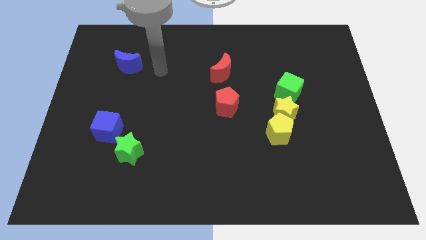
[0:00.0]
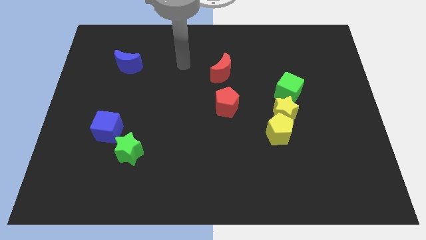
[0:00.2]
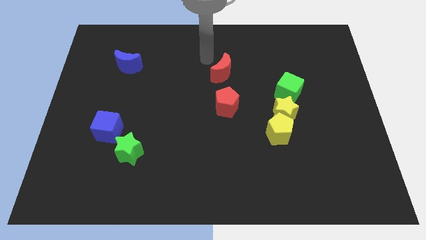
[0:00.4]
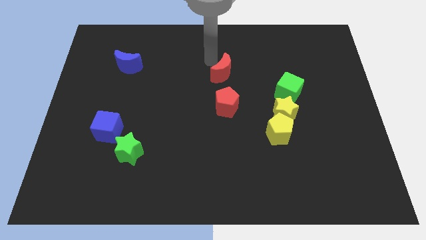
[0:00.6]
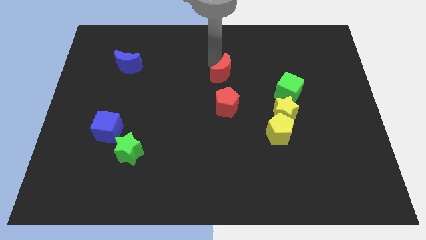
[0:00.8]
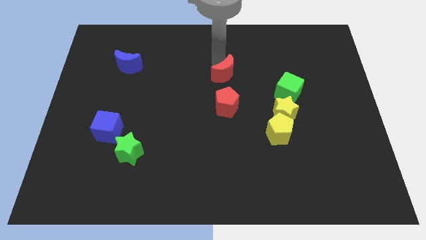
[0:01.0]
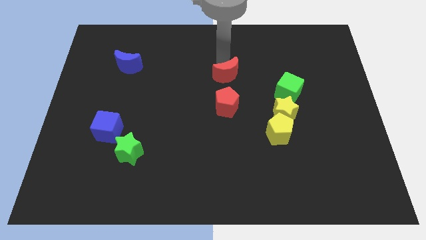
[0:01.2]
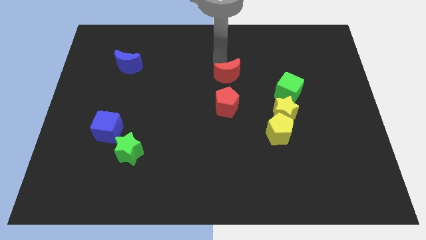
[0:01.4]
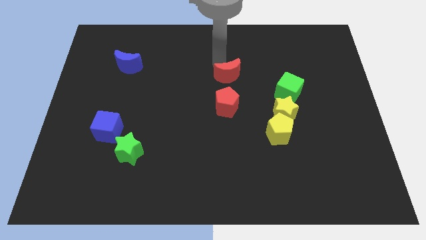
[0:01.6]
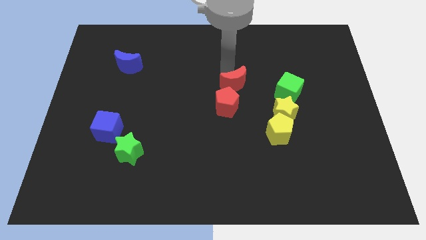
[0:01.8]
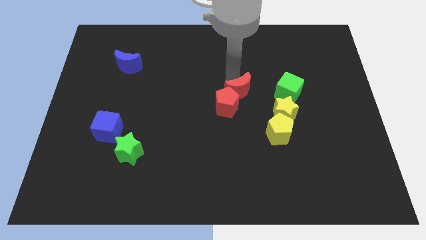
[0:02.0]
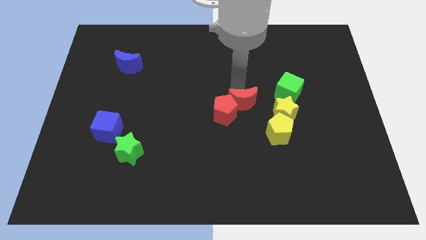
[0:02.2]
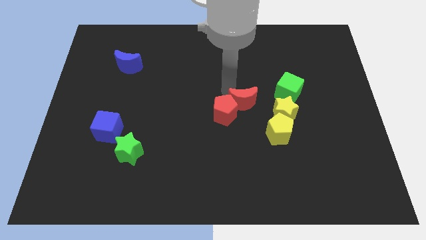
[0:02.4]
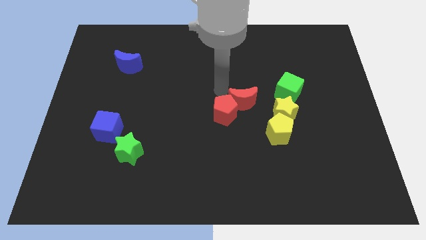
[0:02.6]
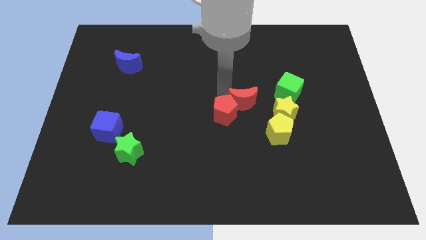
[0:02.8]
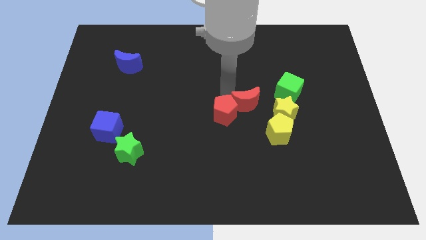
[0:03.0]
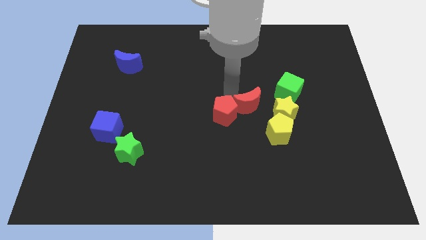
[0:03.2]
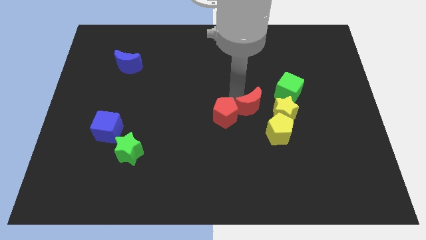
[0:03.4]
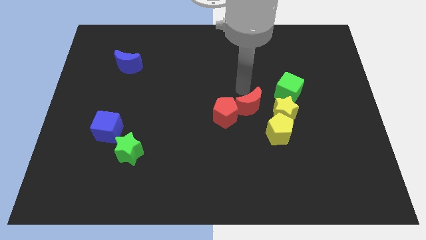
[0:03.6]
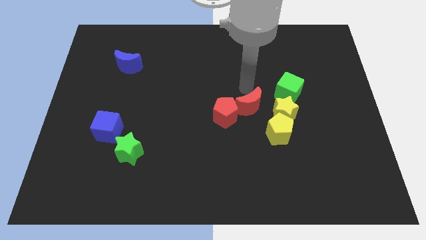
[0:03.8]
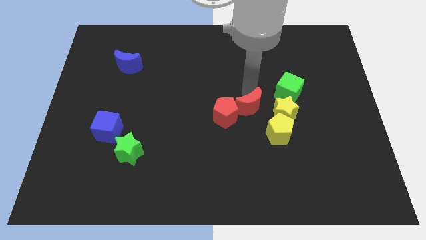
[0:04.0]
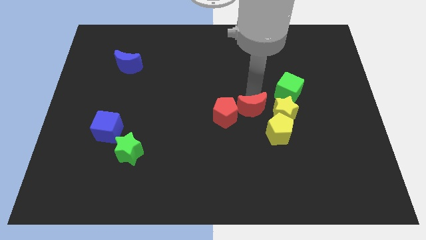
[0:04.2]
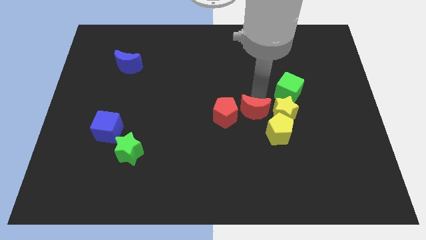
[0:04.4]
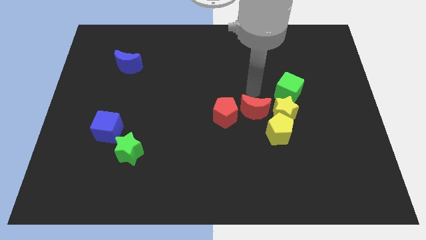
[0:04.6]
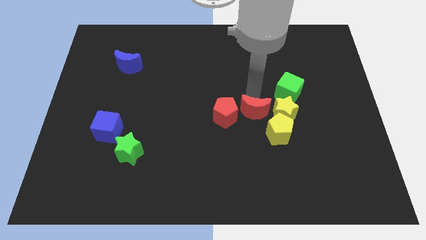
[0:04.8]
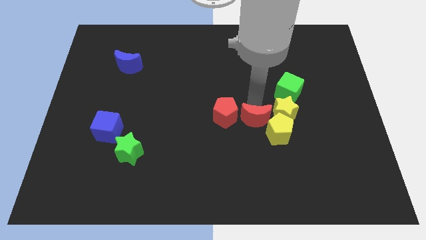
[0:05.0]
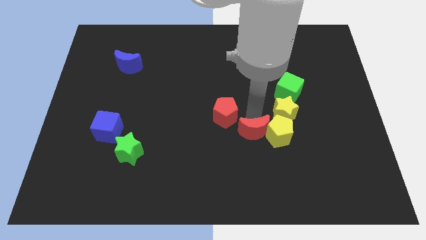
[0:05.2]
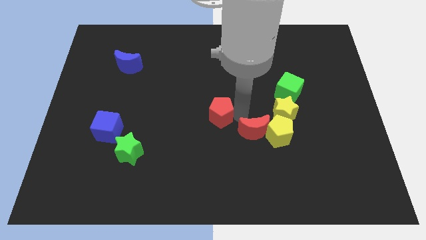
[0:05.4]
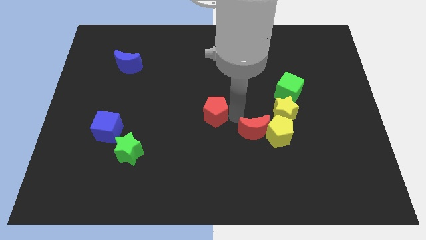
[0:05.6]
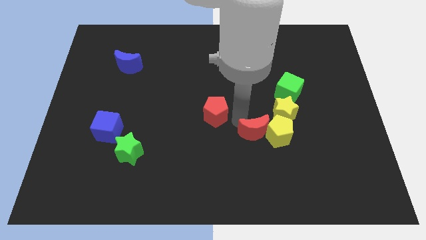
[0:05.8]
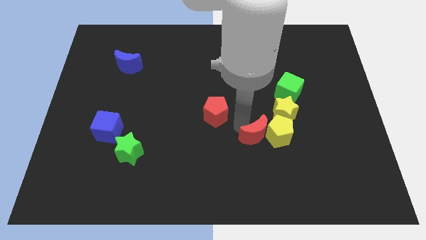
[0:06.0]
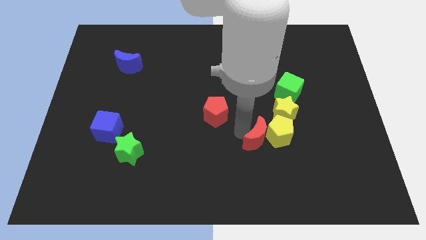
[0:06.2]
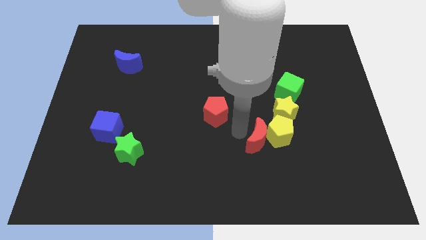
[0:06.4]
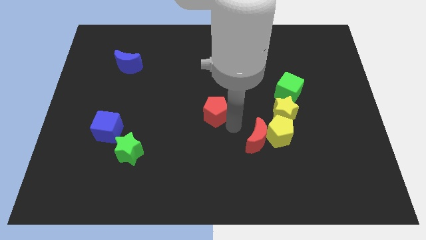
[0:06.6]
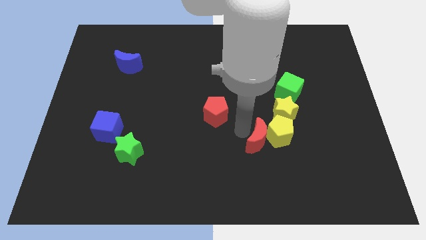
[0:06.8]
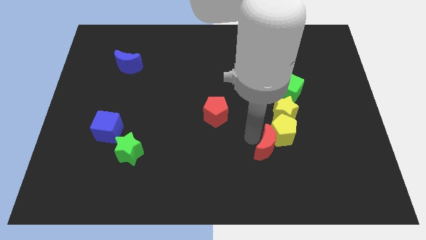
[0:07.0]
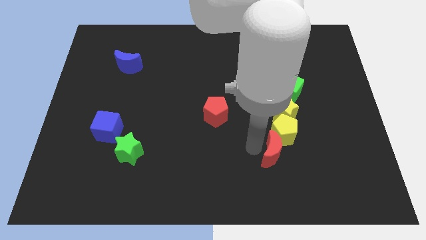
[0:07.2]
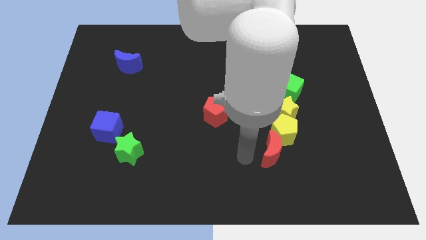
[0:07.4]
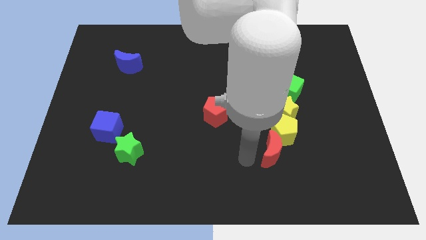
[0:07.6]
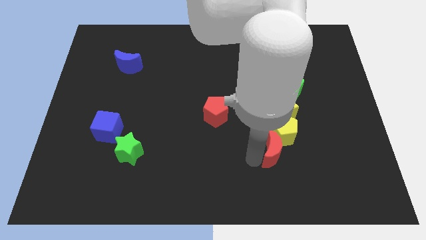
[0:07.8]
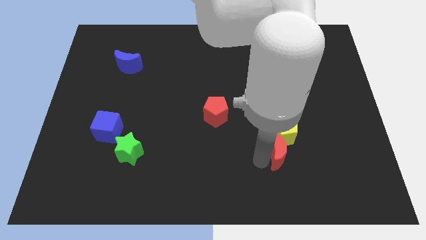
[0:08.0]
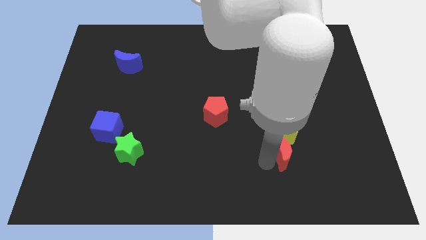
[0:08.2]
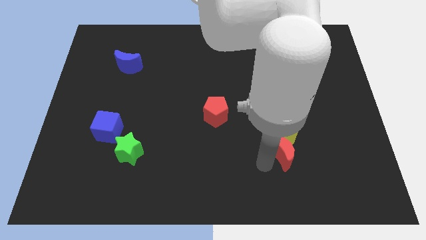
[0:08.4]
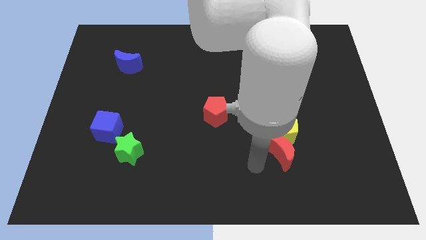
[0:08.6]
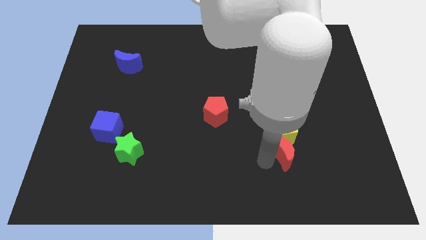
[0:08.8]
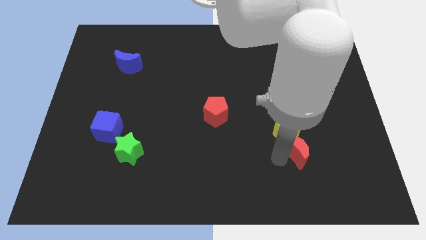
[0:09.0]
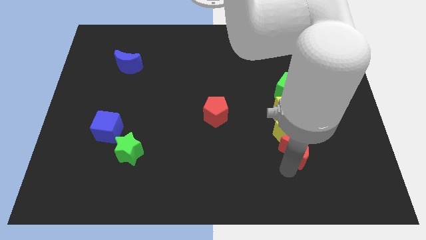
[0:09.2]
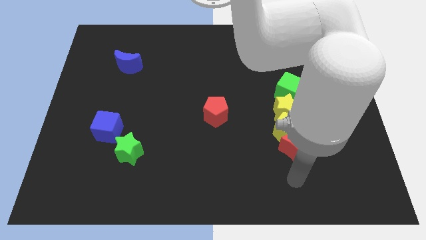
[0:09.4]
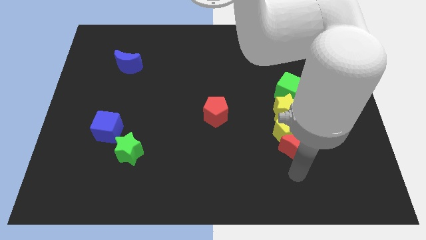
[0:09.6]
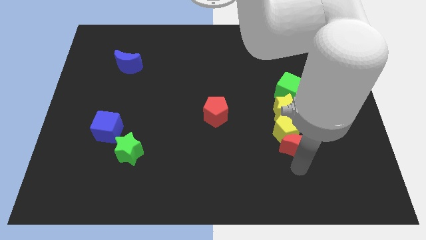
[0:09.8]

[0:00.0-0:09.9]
slide the red moon to the bottom side of the green cube

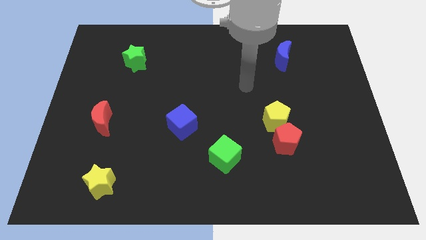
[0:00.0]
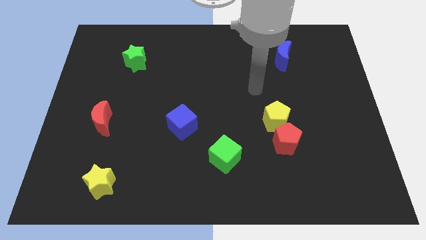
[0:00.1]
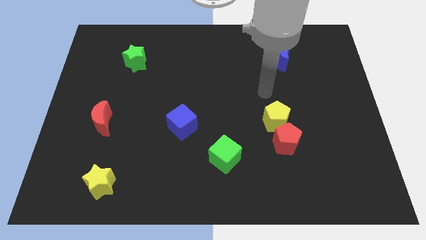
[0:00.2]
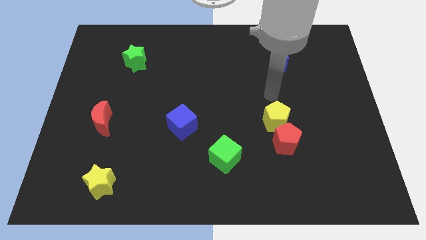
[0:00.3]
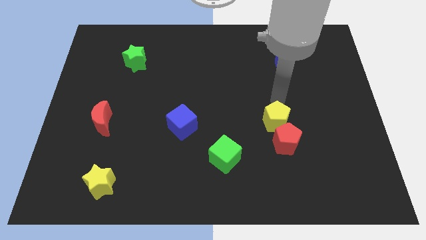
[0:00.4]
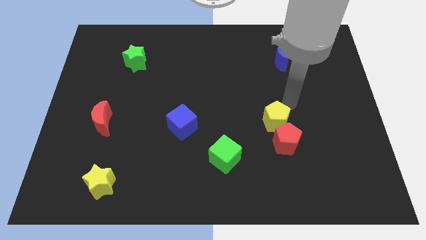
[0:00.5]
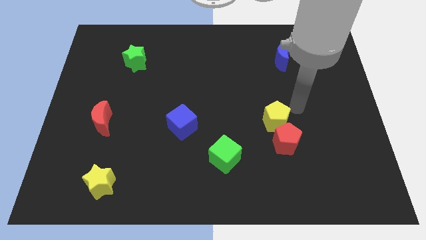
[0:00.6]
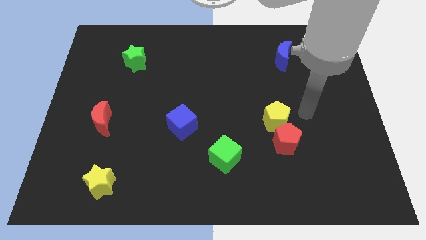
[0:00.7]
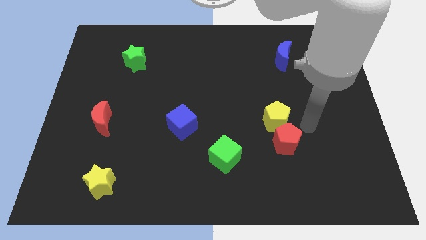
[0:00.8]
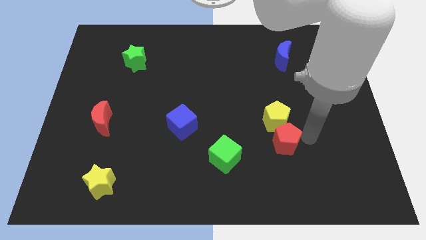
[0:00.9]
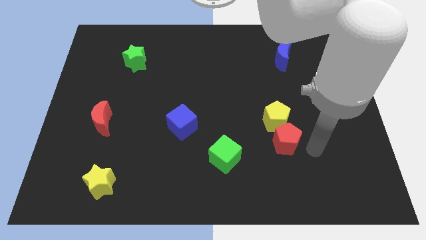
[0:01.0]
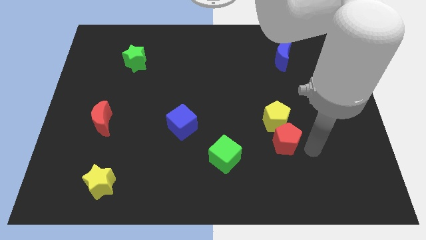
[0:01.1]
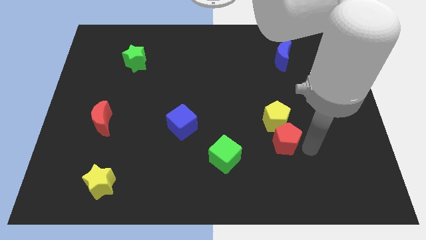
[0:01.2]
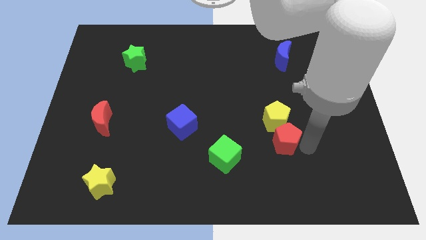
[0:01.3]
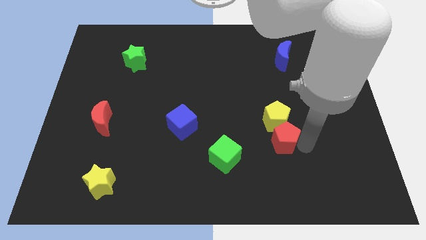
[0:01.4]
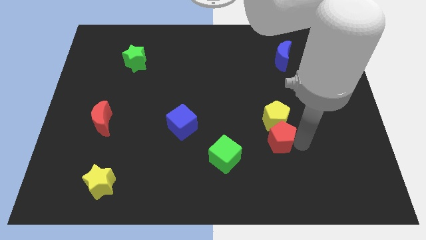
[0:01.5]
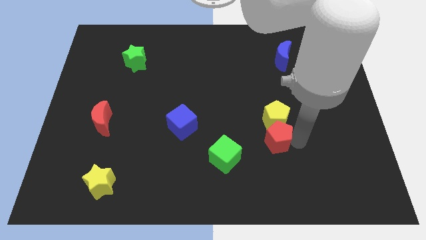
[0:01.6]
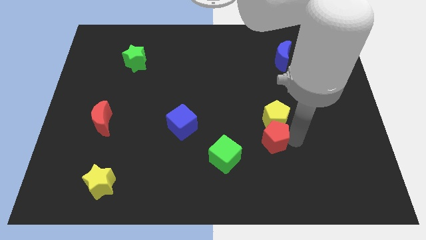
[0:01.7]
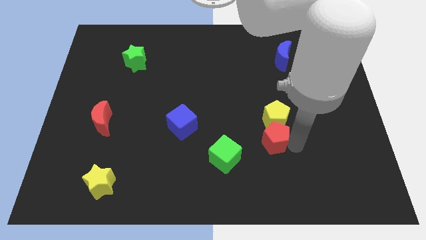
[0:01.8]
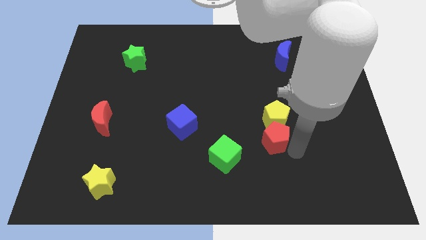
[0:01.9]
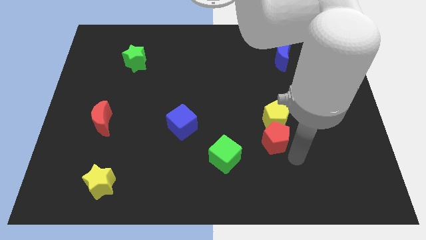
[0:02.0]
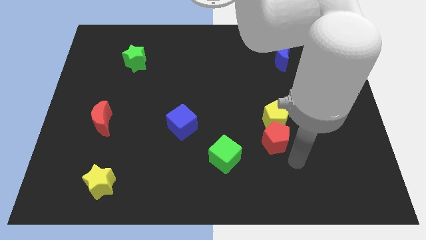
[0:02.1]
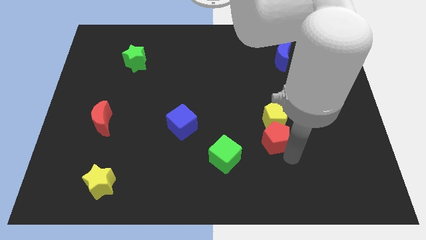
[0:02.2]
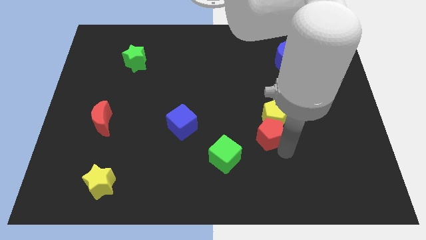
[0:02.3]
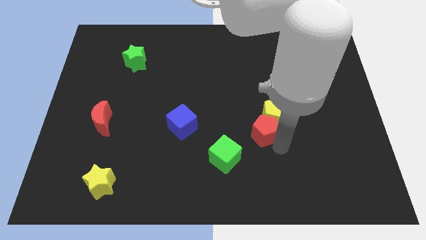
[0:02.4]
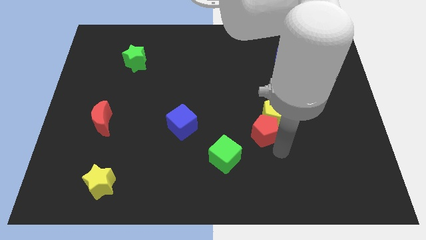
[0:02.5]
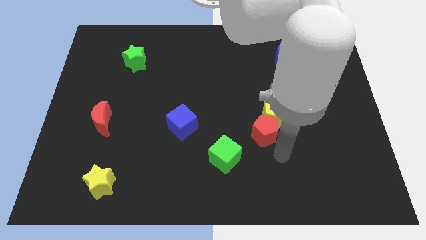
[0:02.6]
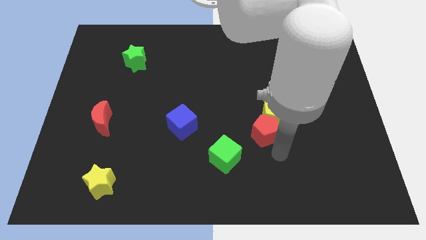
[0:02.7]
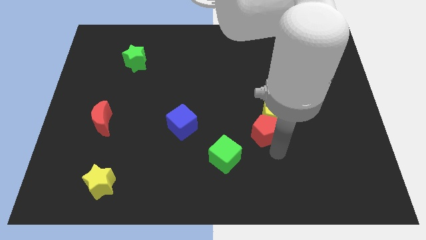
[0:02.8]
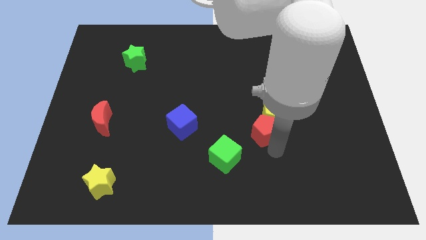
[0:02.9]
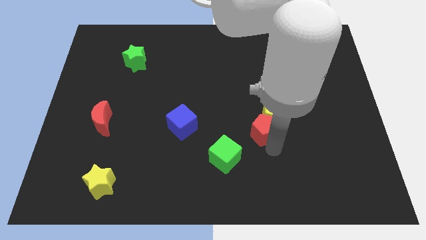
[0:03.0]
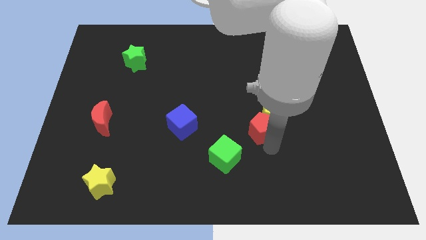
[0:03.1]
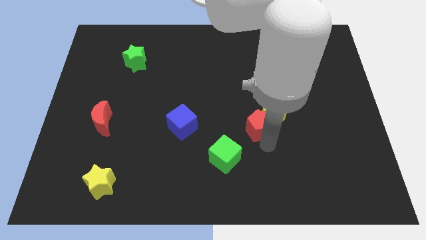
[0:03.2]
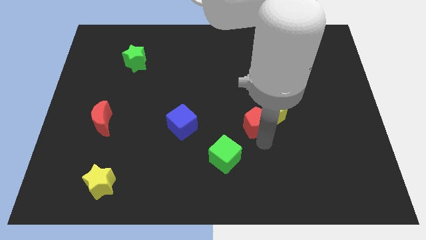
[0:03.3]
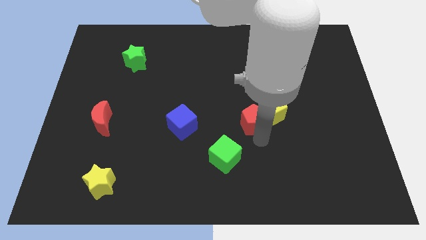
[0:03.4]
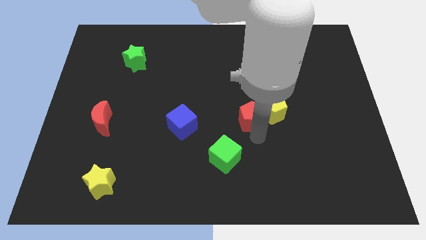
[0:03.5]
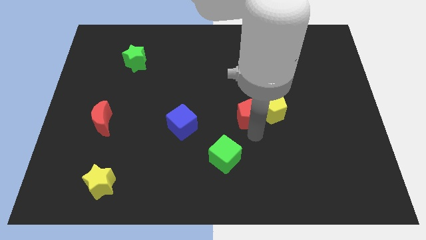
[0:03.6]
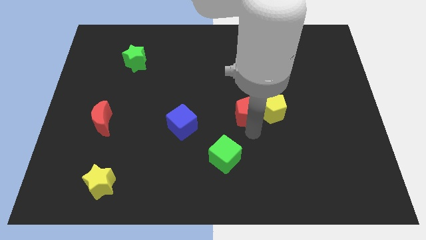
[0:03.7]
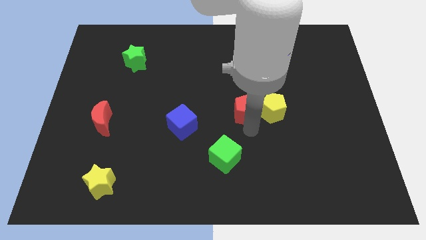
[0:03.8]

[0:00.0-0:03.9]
push the red pentagon to the top left of the yellow pentagon
